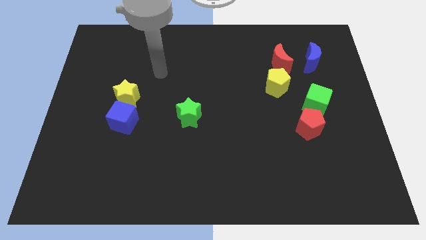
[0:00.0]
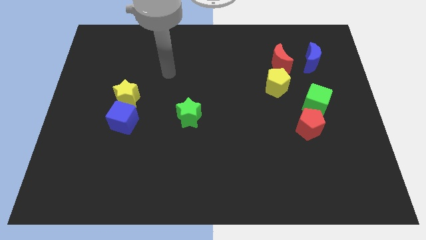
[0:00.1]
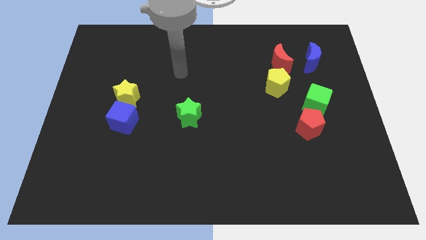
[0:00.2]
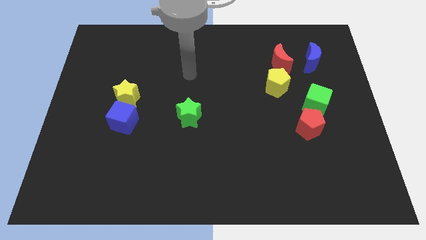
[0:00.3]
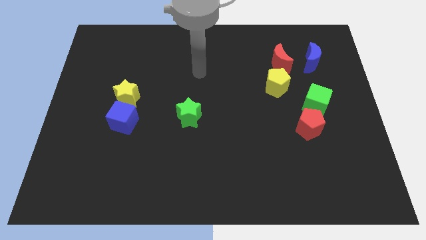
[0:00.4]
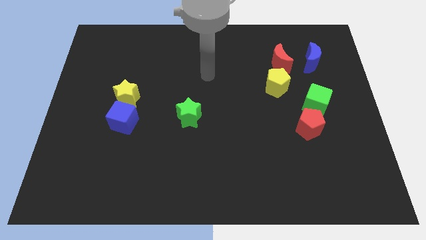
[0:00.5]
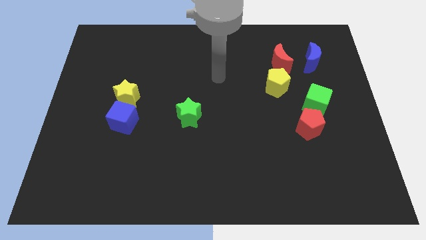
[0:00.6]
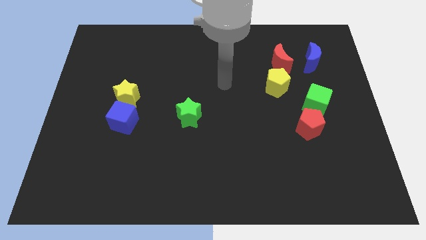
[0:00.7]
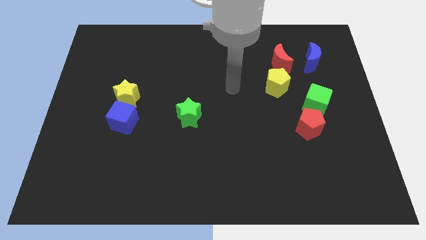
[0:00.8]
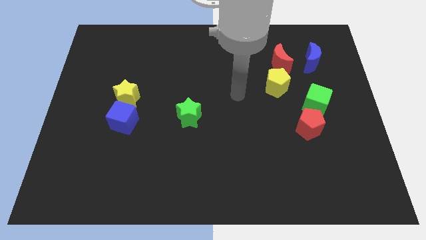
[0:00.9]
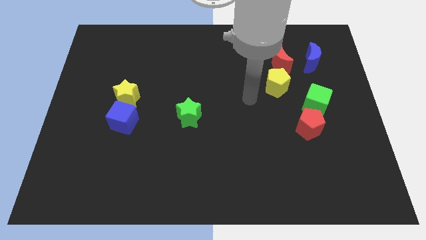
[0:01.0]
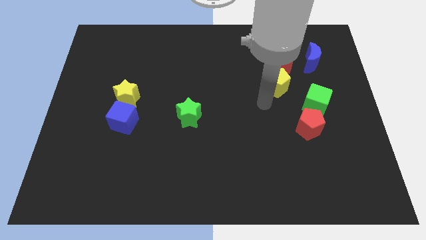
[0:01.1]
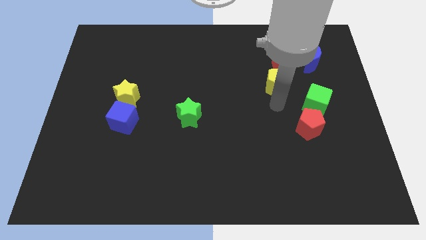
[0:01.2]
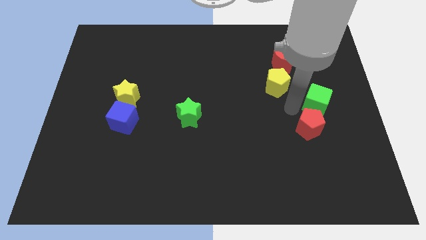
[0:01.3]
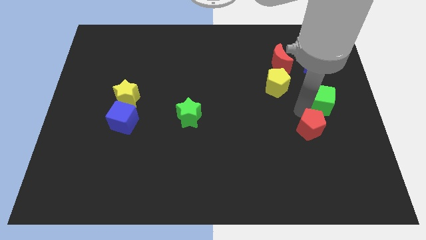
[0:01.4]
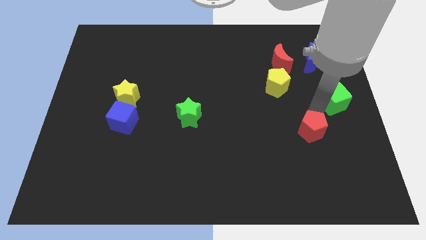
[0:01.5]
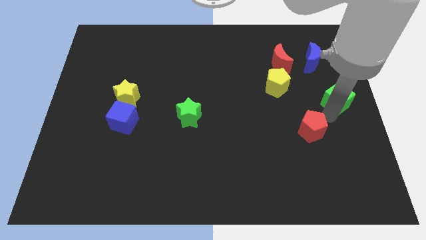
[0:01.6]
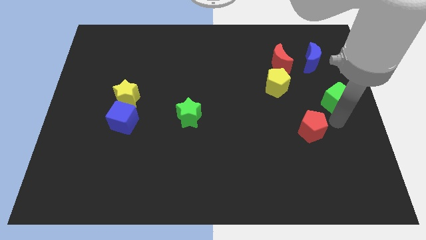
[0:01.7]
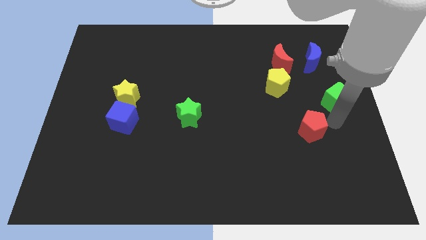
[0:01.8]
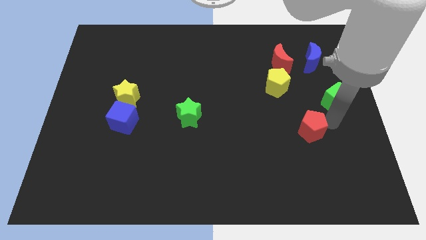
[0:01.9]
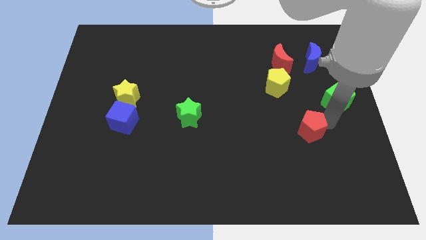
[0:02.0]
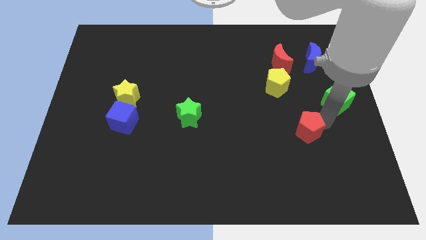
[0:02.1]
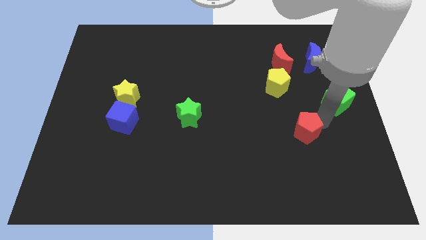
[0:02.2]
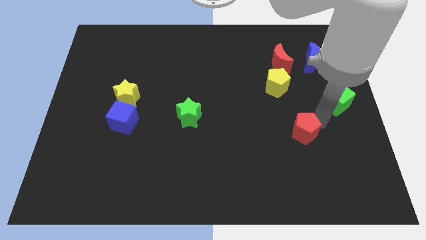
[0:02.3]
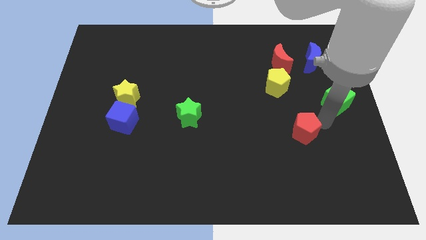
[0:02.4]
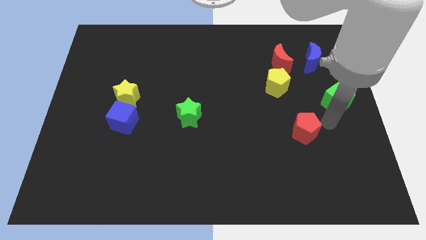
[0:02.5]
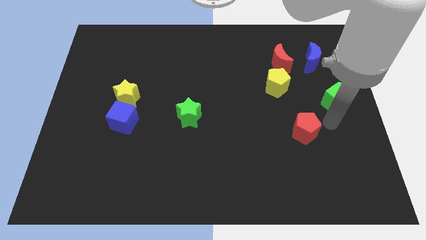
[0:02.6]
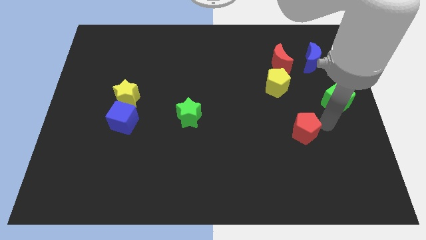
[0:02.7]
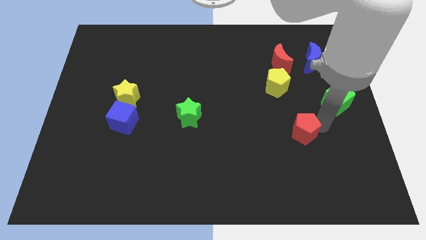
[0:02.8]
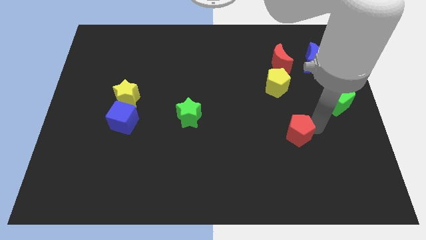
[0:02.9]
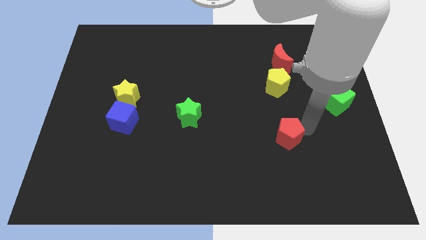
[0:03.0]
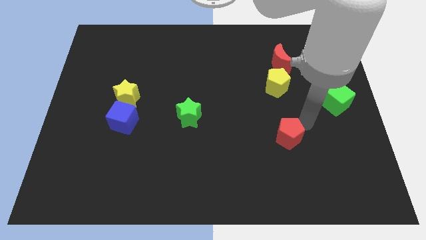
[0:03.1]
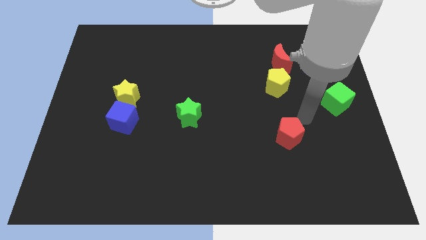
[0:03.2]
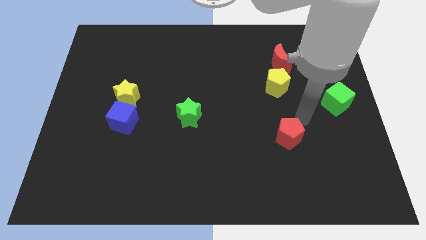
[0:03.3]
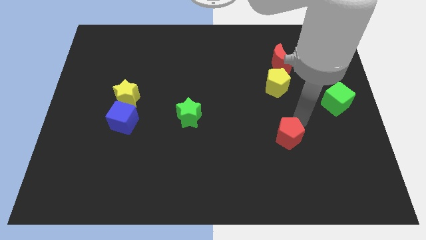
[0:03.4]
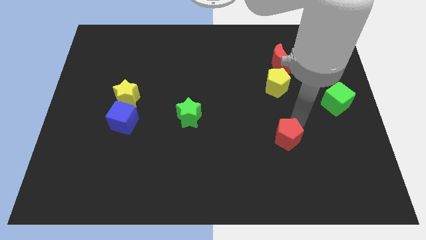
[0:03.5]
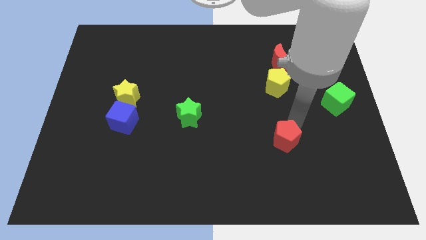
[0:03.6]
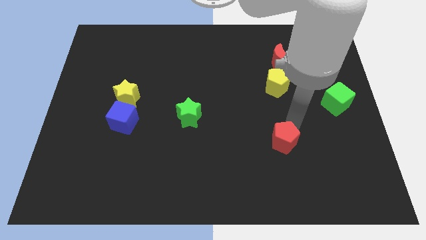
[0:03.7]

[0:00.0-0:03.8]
slightly push the red pentagon downwards and then to the left

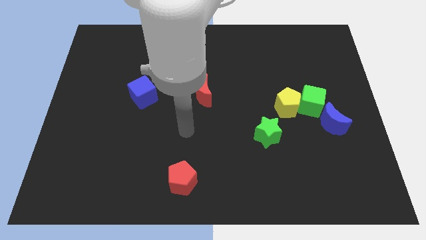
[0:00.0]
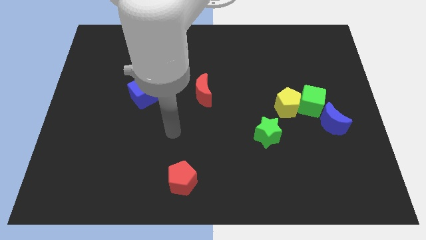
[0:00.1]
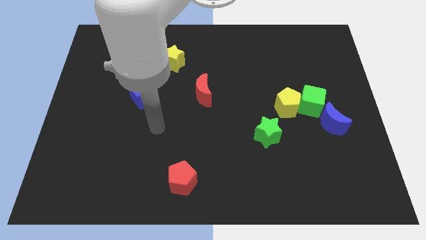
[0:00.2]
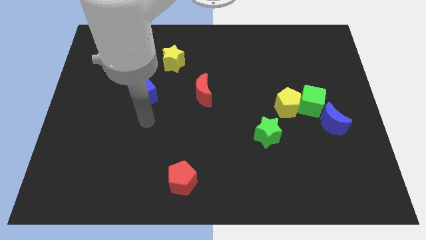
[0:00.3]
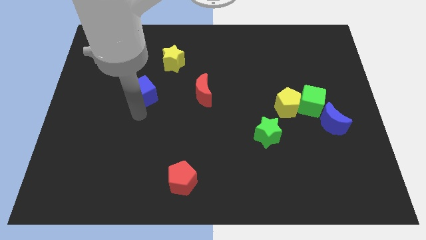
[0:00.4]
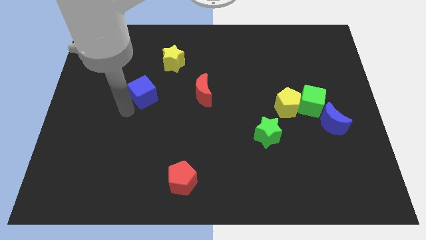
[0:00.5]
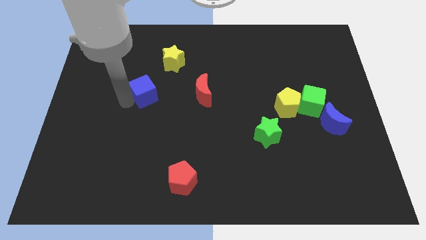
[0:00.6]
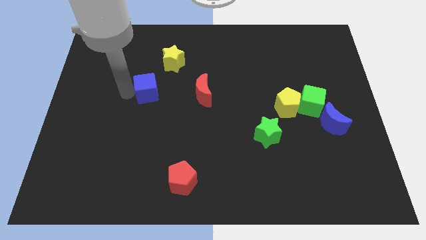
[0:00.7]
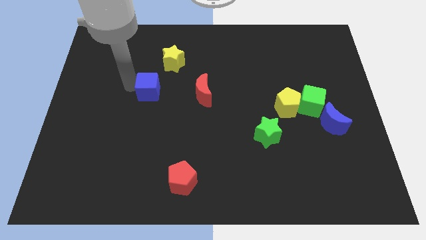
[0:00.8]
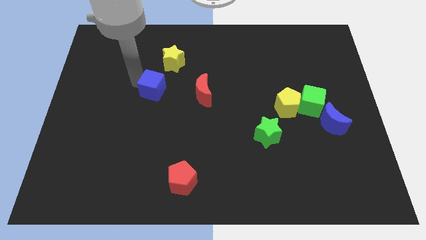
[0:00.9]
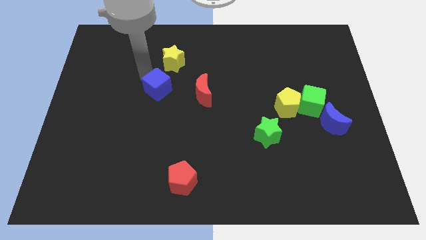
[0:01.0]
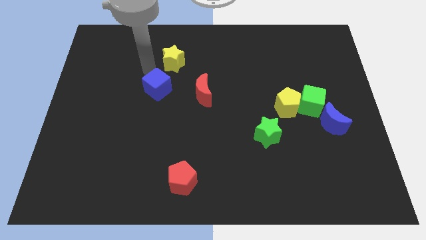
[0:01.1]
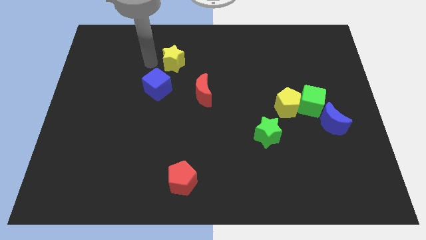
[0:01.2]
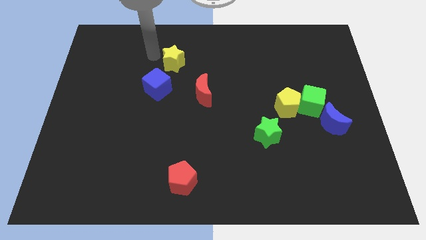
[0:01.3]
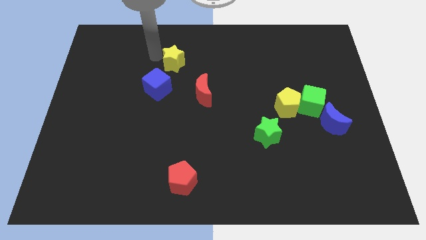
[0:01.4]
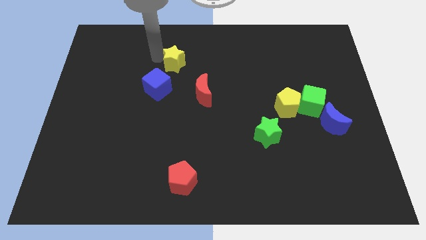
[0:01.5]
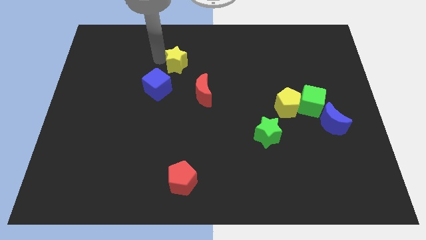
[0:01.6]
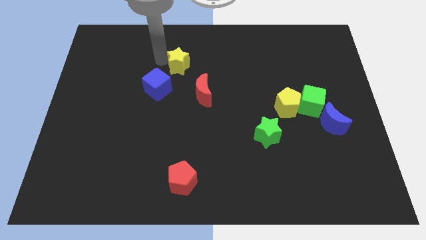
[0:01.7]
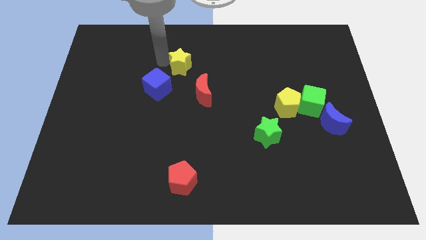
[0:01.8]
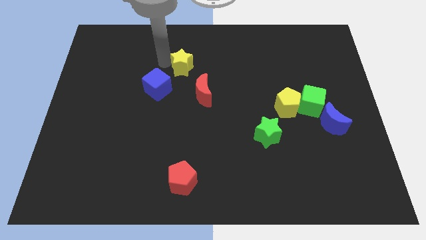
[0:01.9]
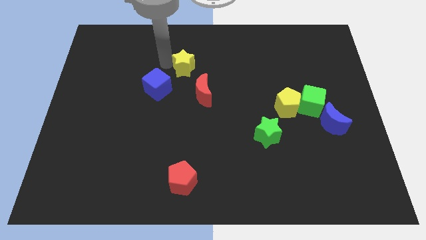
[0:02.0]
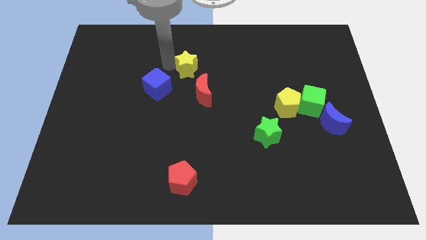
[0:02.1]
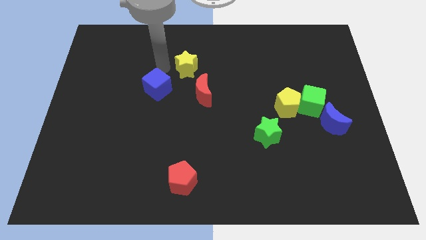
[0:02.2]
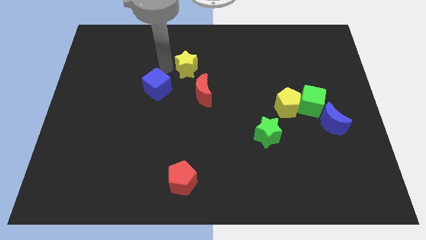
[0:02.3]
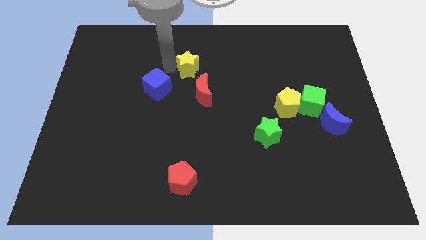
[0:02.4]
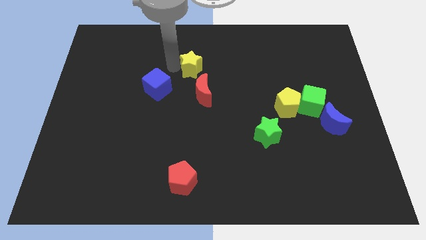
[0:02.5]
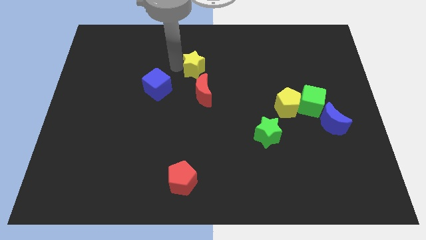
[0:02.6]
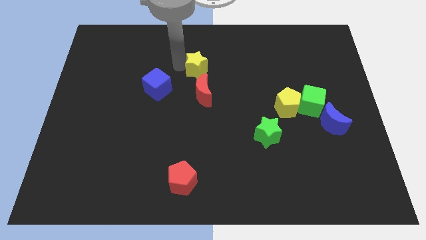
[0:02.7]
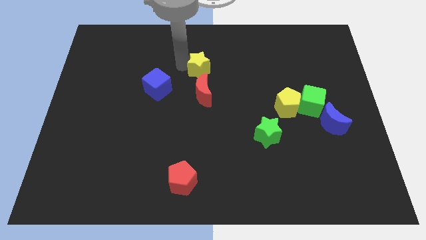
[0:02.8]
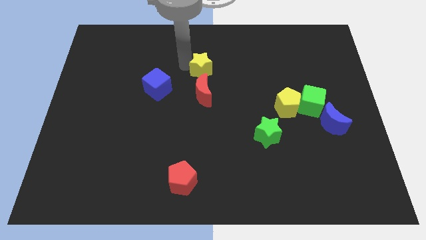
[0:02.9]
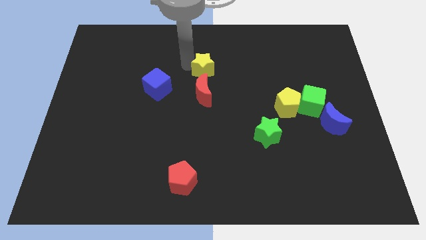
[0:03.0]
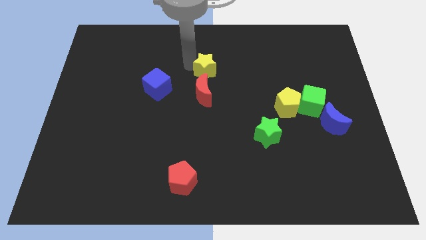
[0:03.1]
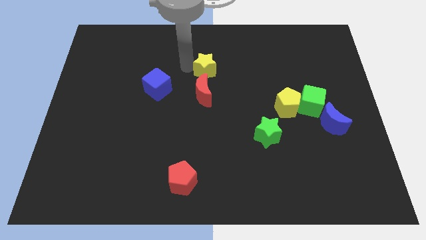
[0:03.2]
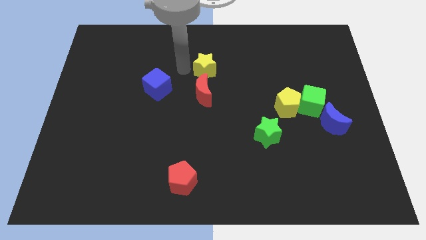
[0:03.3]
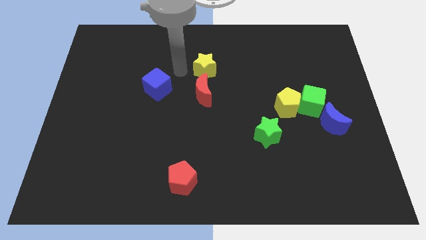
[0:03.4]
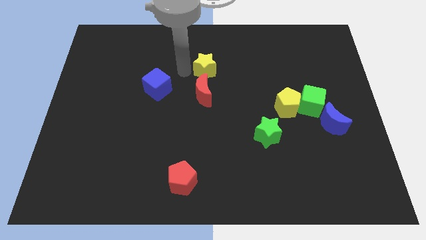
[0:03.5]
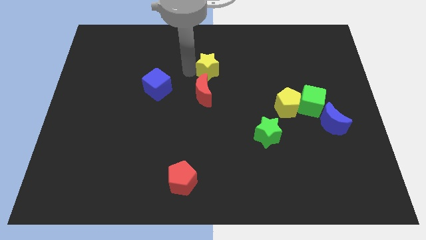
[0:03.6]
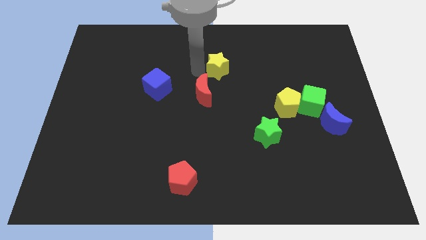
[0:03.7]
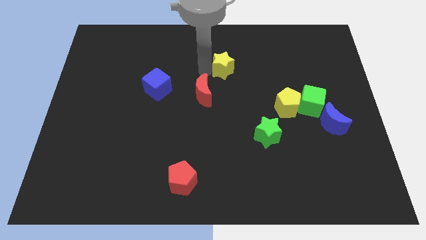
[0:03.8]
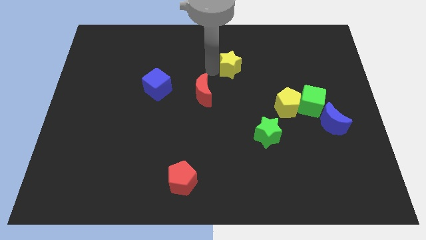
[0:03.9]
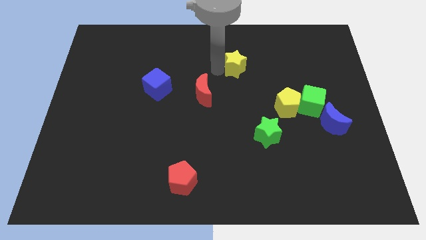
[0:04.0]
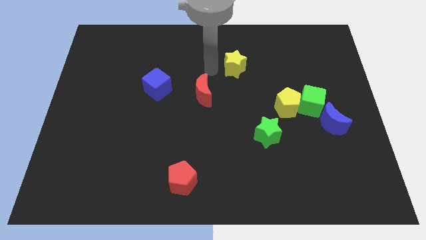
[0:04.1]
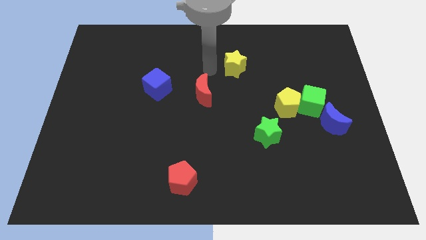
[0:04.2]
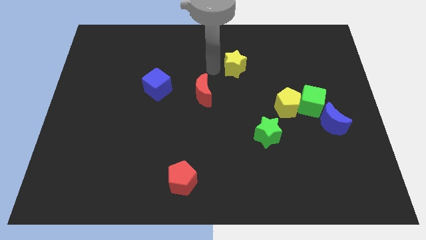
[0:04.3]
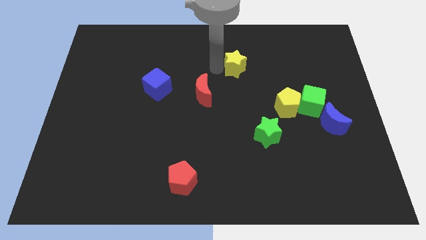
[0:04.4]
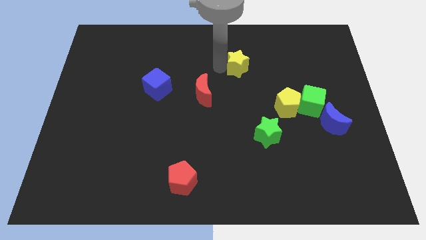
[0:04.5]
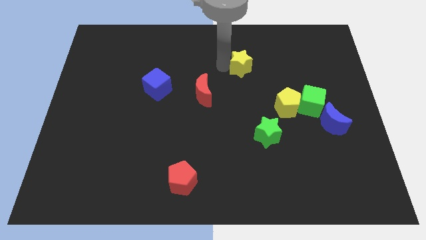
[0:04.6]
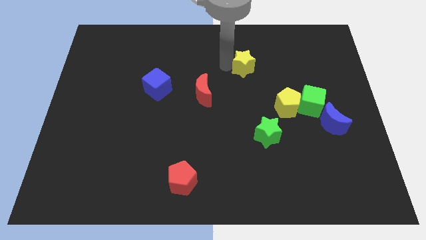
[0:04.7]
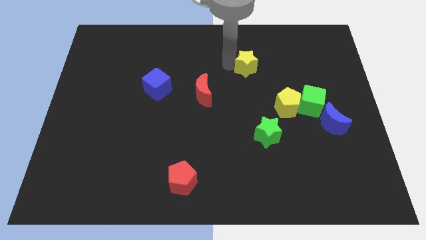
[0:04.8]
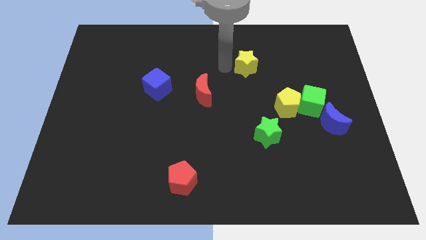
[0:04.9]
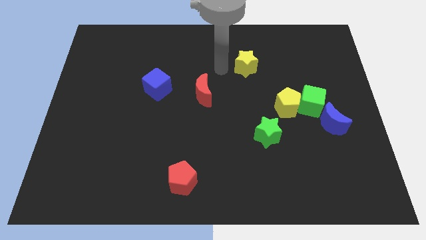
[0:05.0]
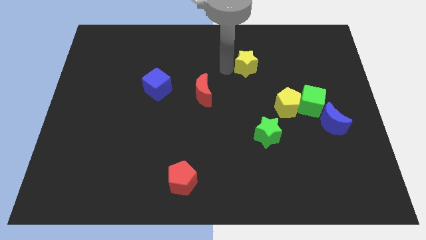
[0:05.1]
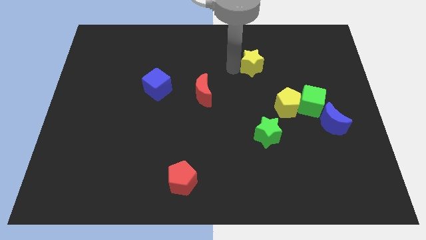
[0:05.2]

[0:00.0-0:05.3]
push the yellow star right
